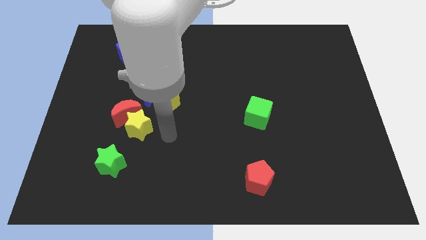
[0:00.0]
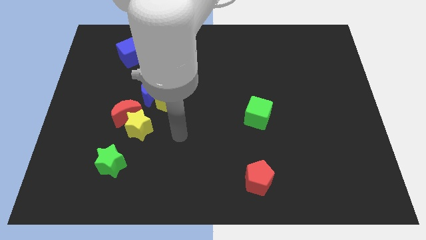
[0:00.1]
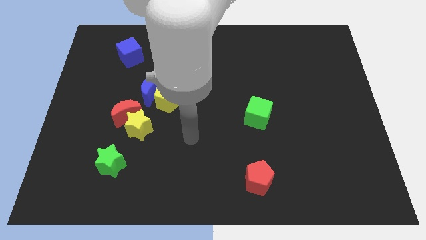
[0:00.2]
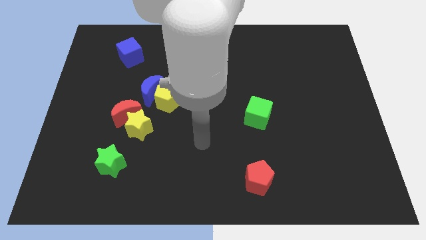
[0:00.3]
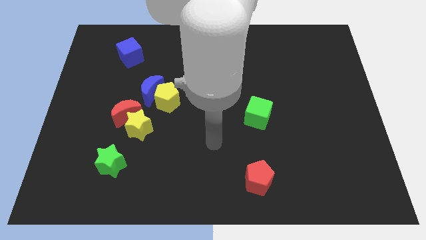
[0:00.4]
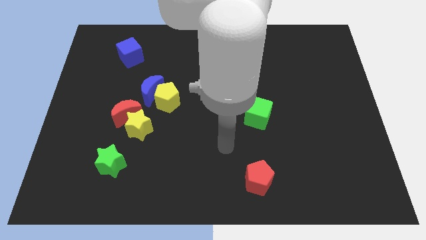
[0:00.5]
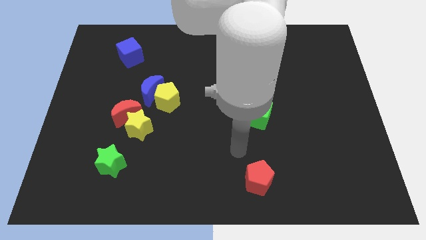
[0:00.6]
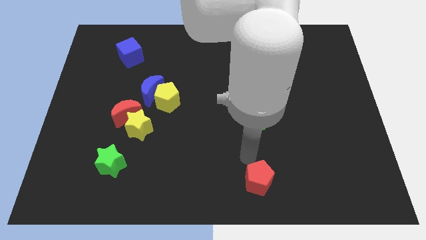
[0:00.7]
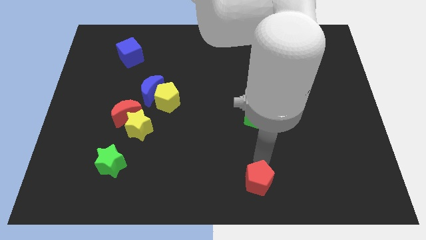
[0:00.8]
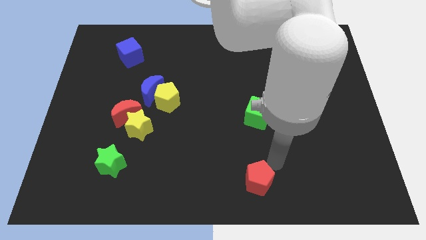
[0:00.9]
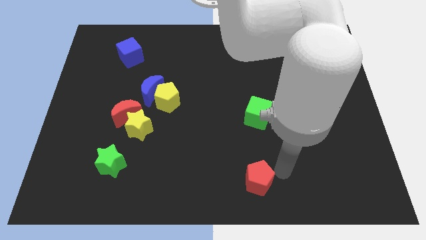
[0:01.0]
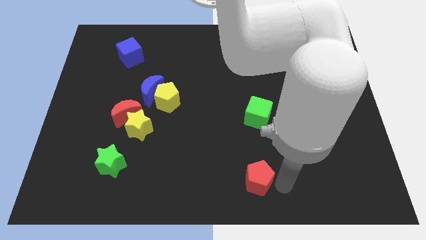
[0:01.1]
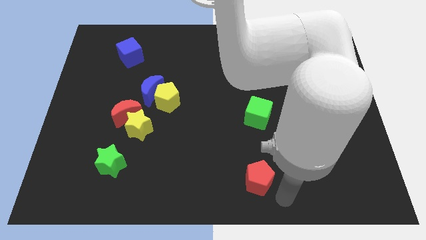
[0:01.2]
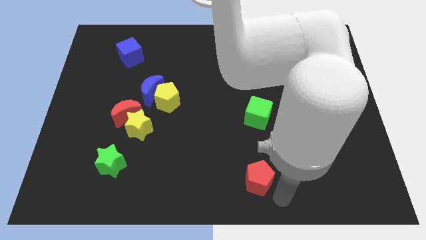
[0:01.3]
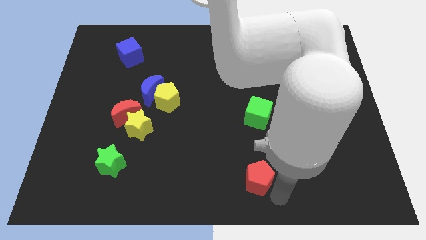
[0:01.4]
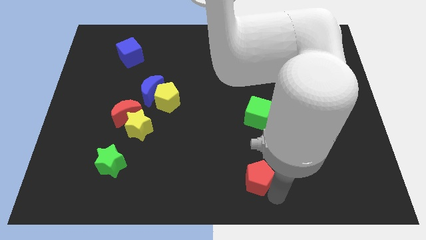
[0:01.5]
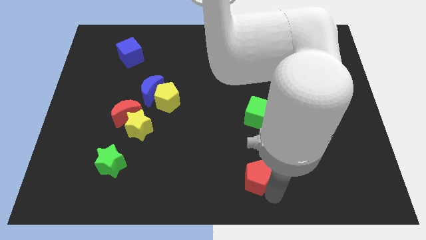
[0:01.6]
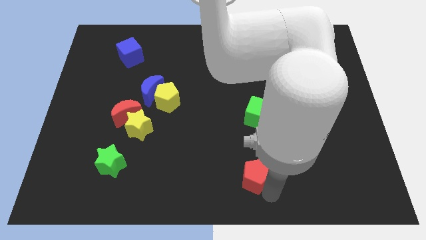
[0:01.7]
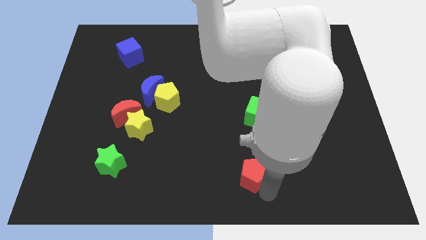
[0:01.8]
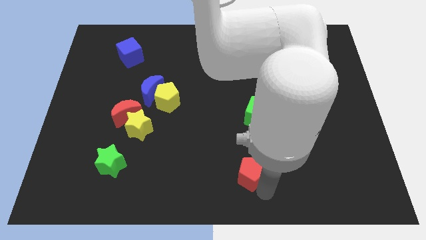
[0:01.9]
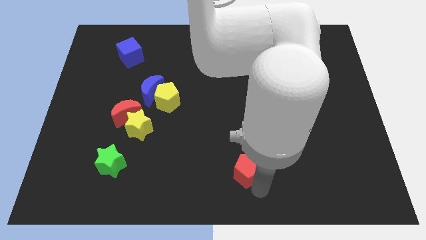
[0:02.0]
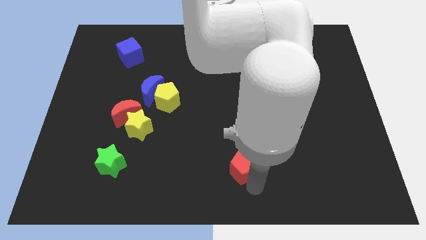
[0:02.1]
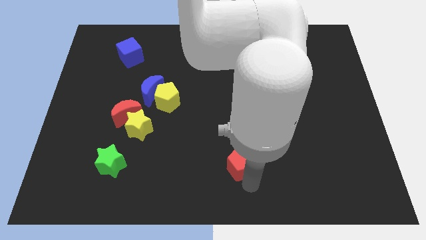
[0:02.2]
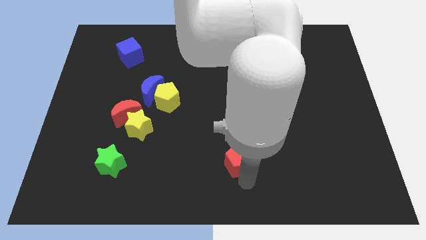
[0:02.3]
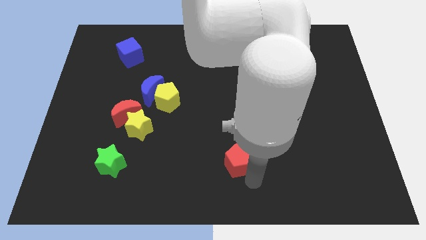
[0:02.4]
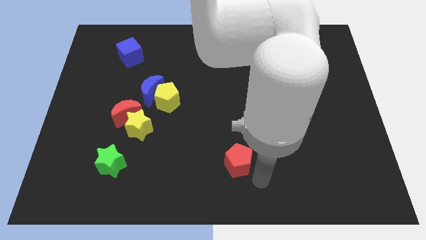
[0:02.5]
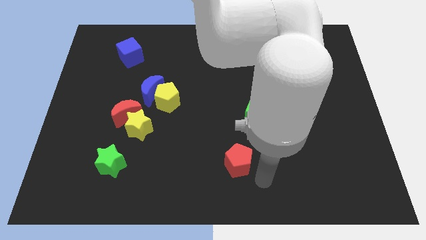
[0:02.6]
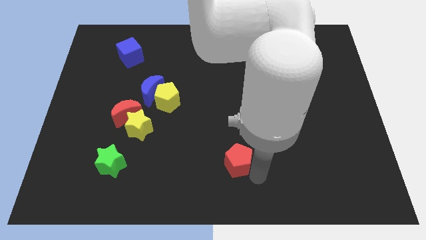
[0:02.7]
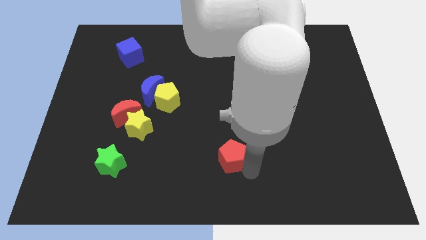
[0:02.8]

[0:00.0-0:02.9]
push the red pentagon diagonally up and to the left slightly

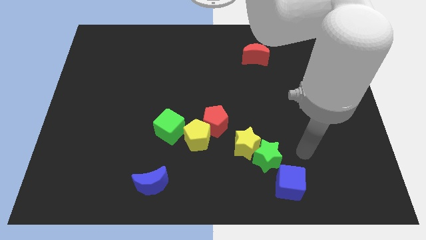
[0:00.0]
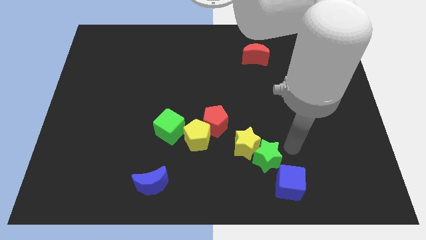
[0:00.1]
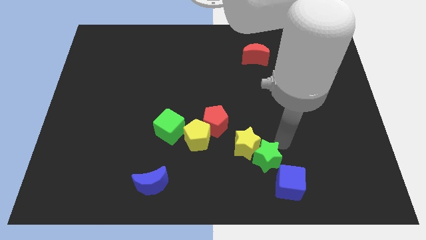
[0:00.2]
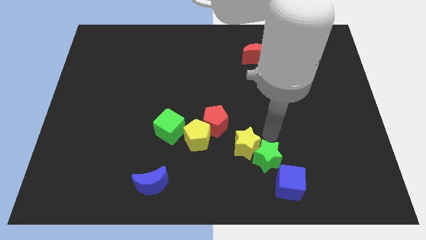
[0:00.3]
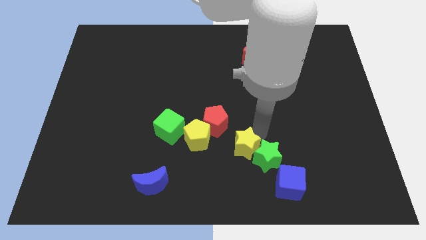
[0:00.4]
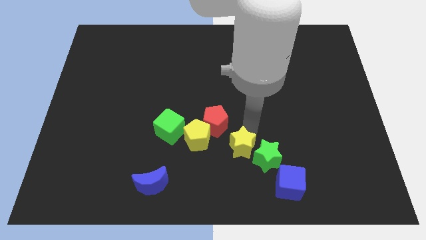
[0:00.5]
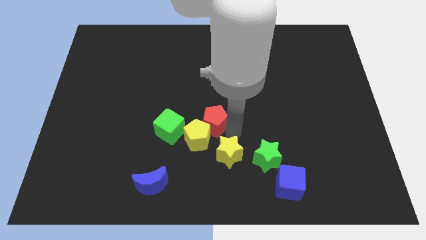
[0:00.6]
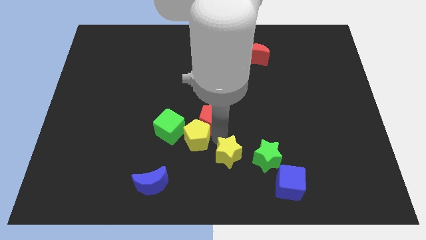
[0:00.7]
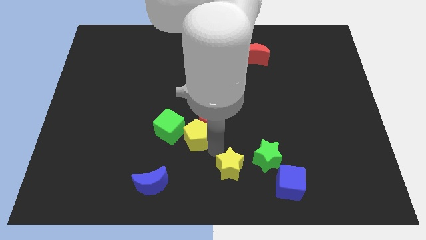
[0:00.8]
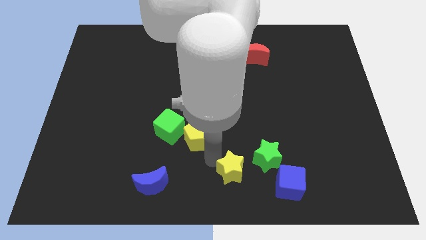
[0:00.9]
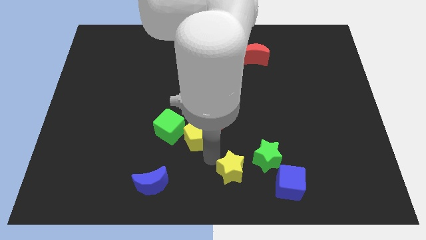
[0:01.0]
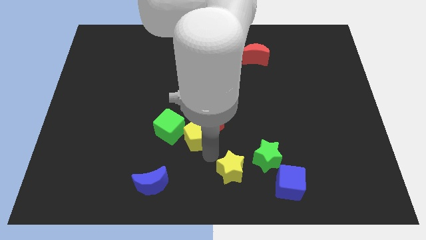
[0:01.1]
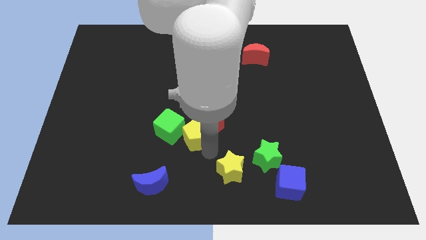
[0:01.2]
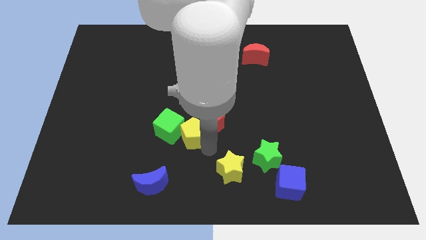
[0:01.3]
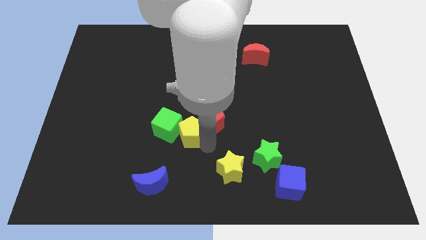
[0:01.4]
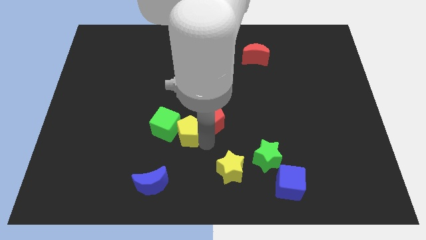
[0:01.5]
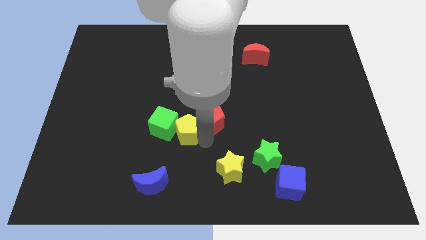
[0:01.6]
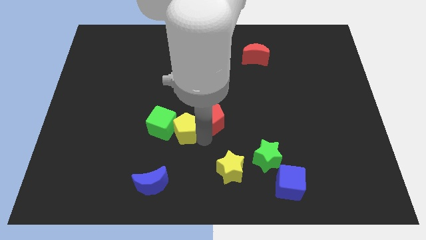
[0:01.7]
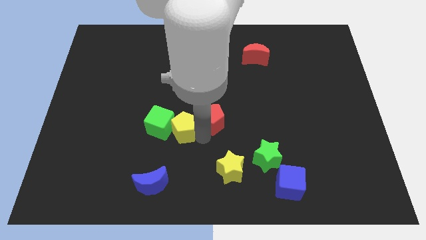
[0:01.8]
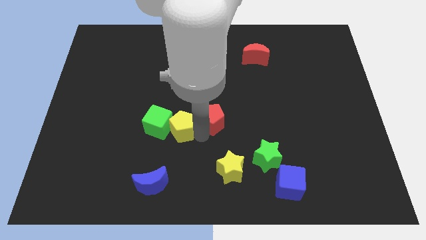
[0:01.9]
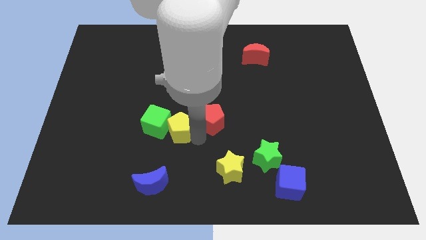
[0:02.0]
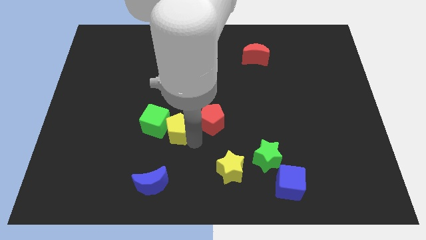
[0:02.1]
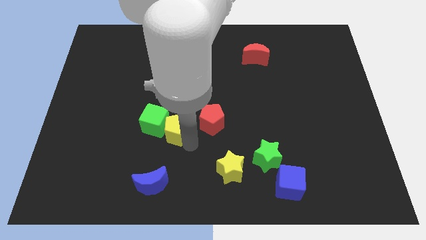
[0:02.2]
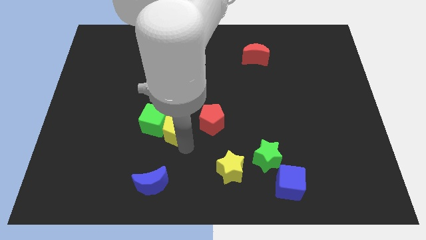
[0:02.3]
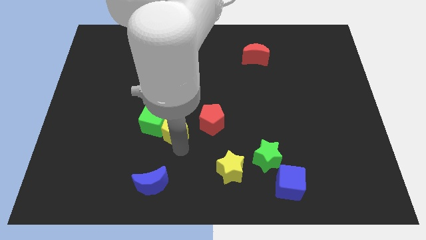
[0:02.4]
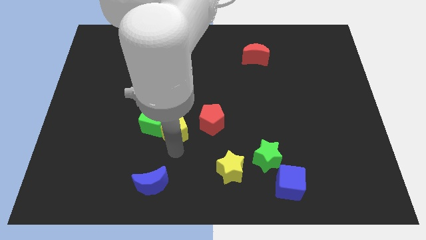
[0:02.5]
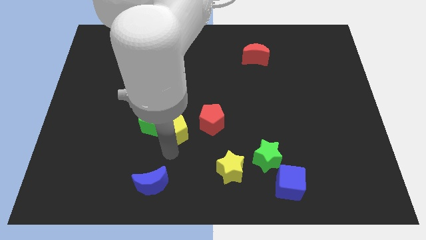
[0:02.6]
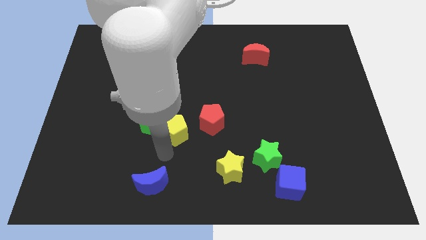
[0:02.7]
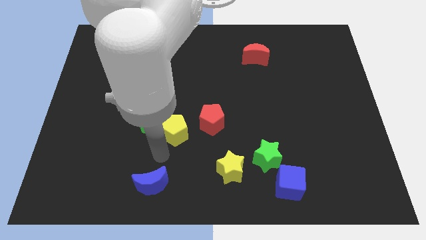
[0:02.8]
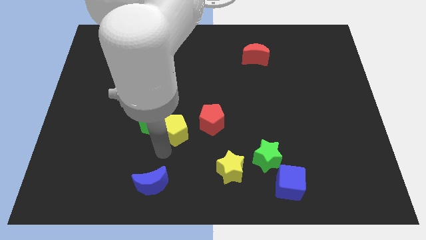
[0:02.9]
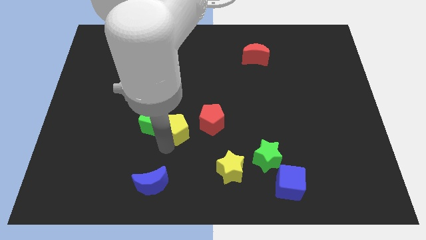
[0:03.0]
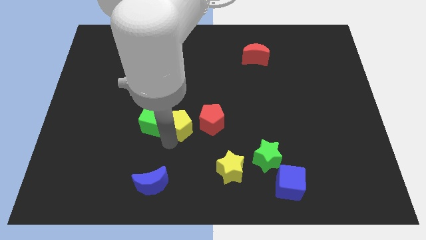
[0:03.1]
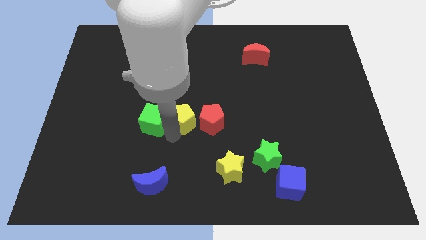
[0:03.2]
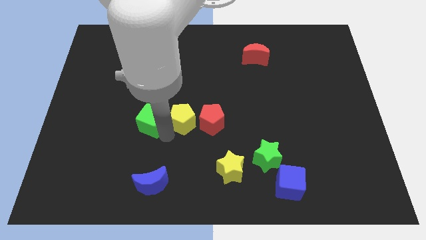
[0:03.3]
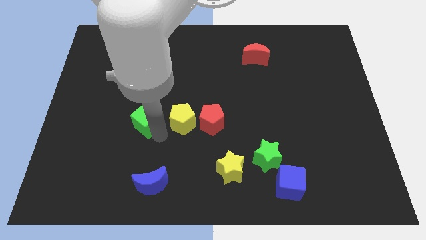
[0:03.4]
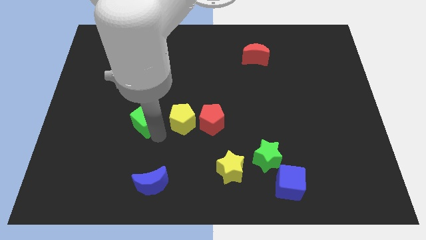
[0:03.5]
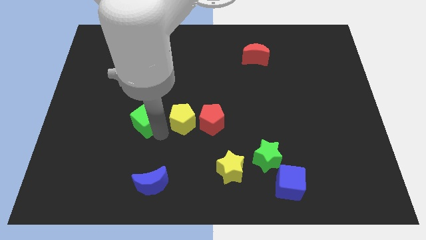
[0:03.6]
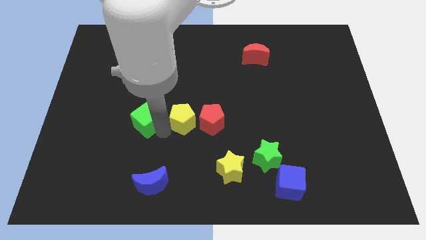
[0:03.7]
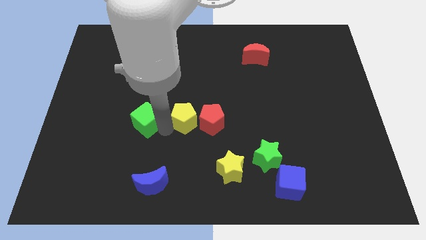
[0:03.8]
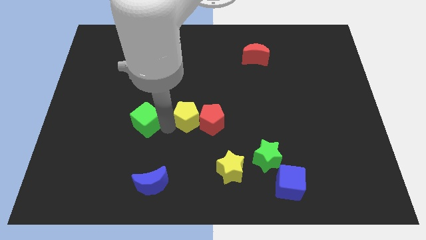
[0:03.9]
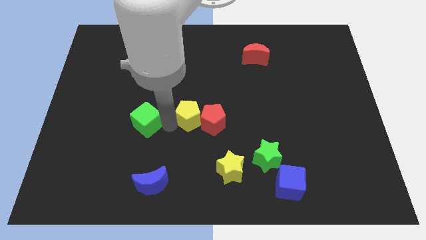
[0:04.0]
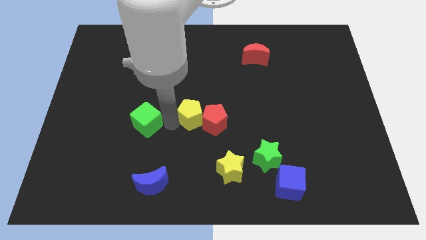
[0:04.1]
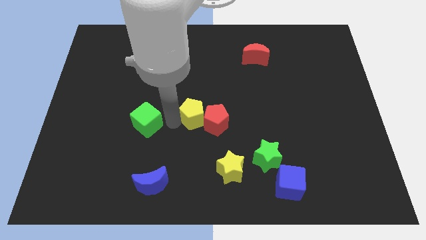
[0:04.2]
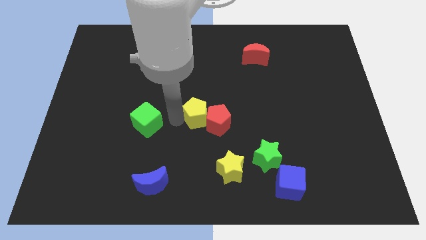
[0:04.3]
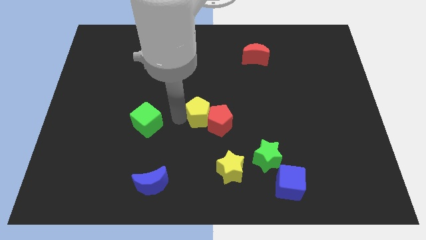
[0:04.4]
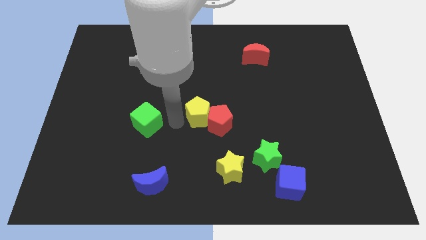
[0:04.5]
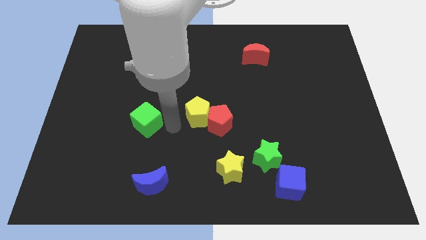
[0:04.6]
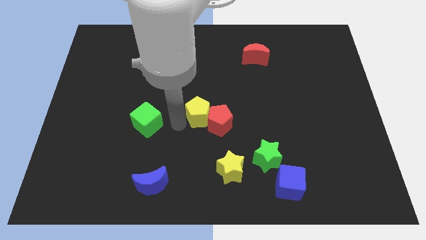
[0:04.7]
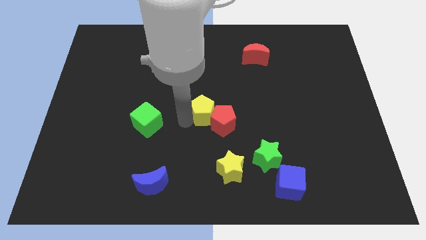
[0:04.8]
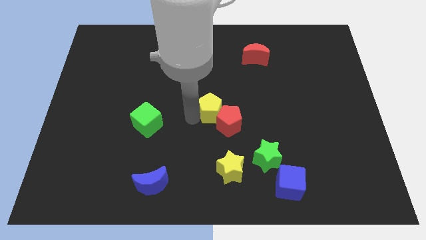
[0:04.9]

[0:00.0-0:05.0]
slightly move the yellow pentagon up and to the right
